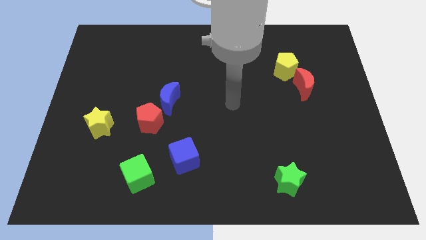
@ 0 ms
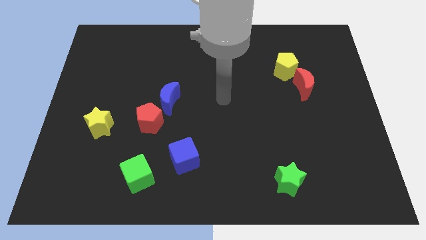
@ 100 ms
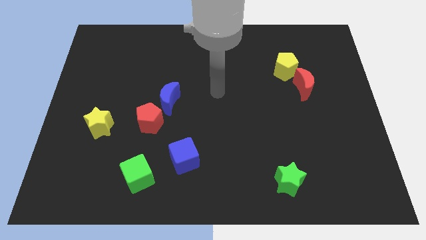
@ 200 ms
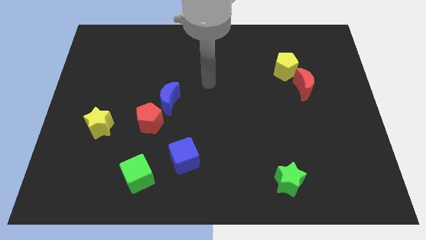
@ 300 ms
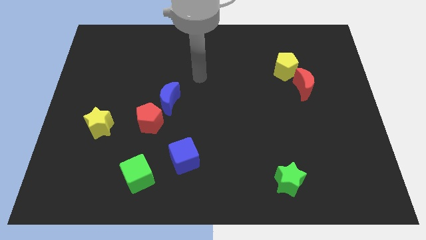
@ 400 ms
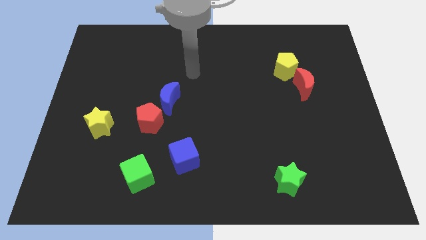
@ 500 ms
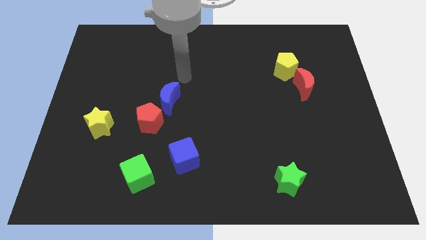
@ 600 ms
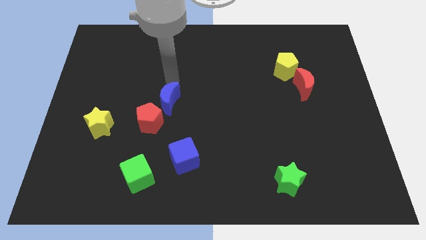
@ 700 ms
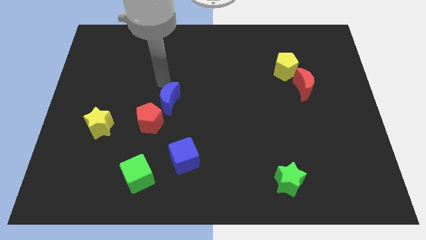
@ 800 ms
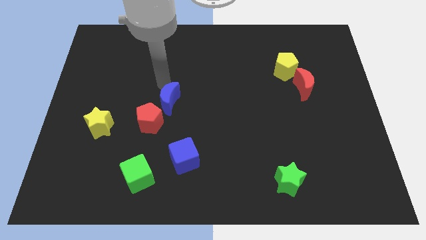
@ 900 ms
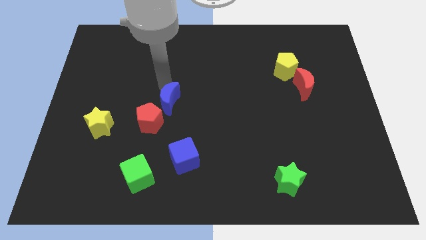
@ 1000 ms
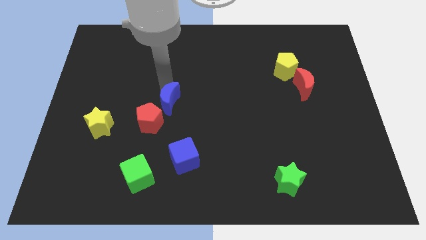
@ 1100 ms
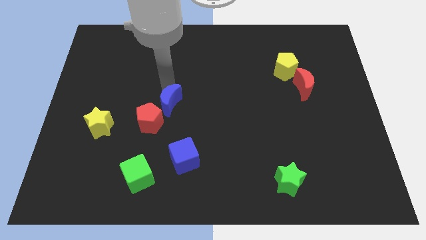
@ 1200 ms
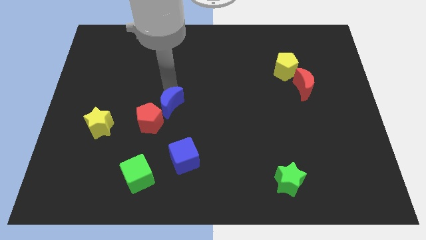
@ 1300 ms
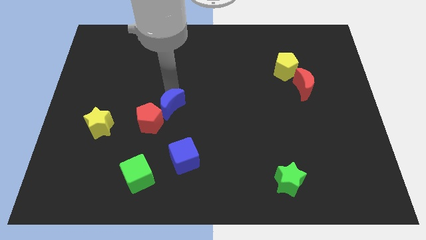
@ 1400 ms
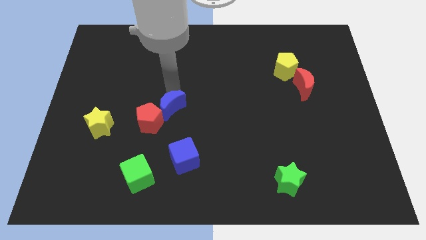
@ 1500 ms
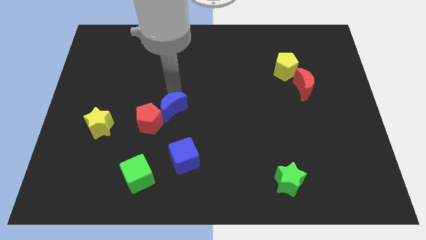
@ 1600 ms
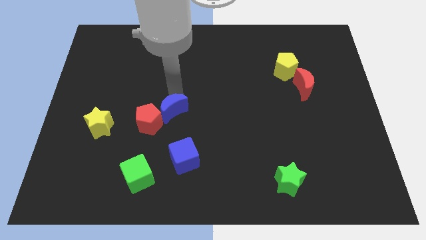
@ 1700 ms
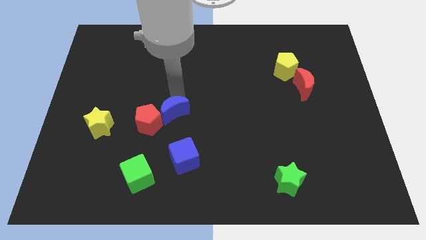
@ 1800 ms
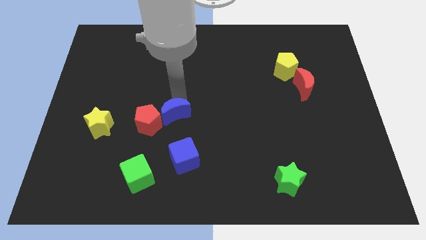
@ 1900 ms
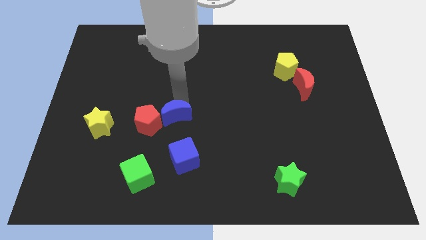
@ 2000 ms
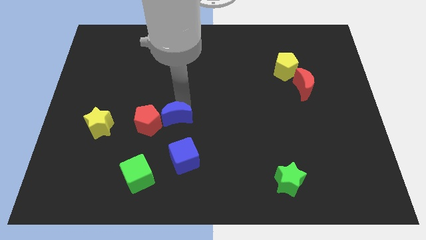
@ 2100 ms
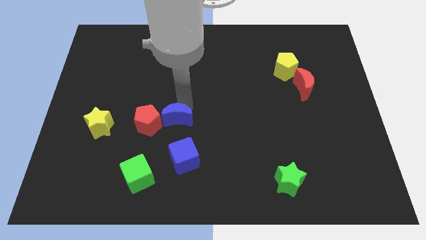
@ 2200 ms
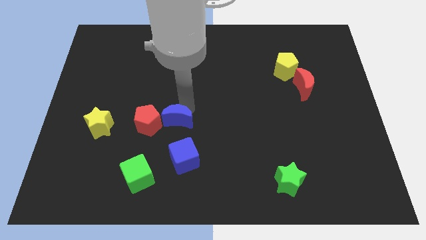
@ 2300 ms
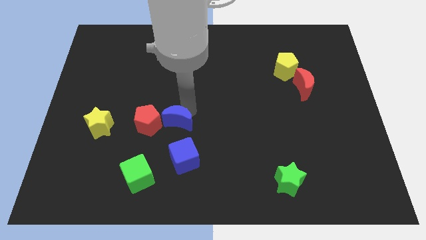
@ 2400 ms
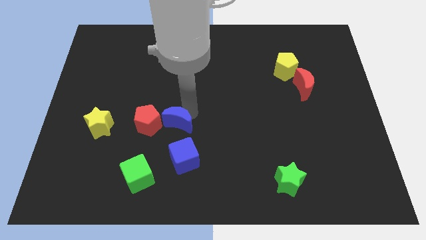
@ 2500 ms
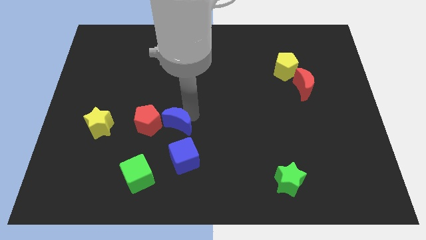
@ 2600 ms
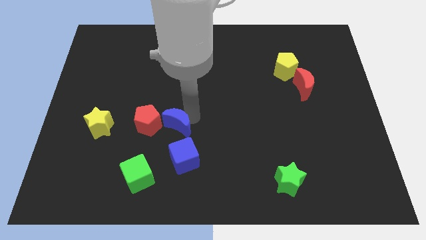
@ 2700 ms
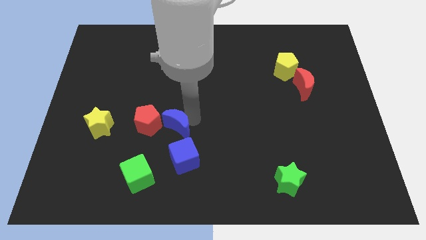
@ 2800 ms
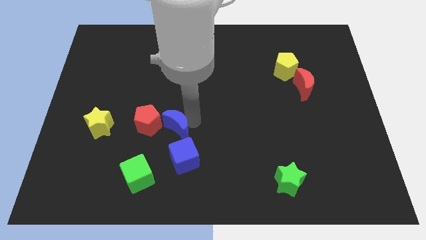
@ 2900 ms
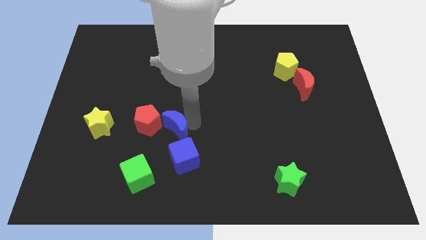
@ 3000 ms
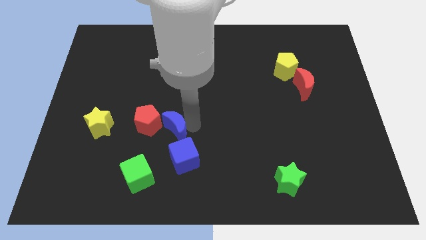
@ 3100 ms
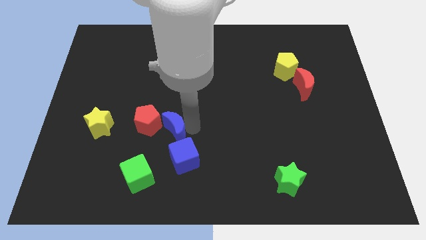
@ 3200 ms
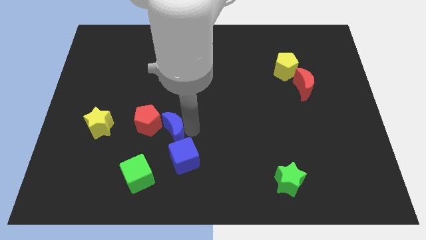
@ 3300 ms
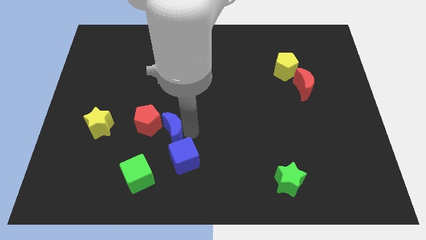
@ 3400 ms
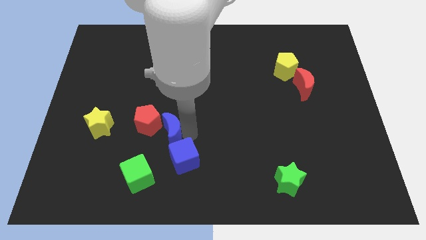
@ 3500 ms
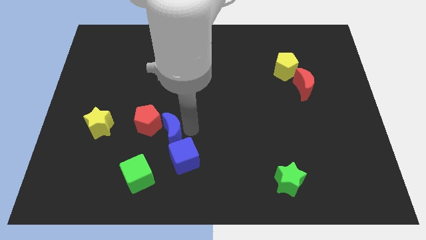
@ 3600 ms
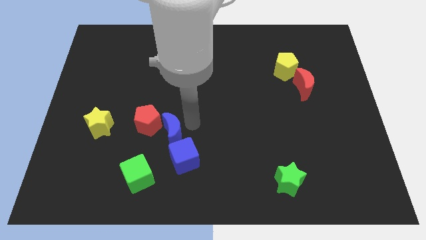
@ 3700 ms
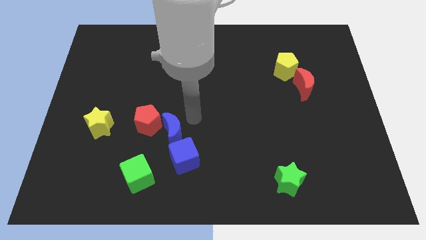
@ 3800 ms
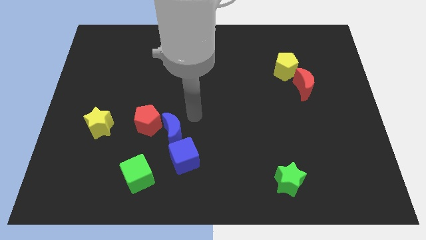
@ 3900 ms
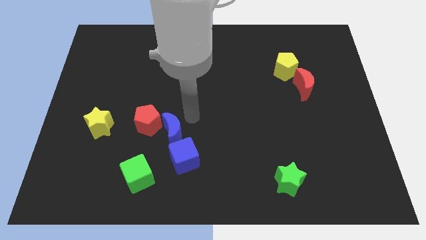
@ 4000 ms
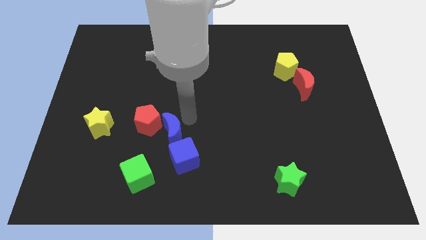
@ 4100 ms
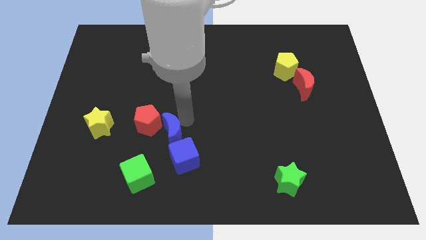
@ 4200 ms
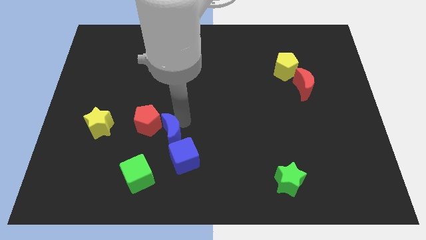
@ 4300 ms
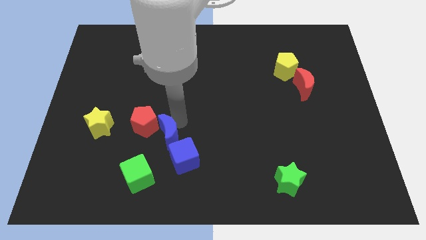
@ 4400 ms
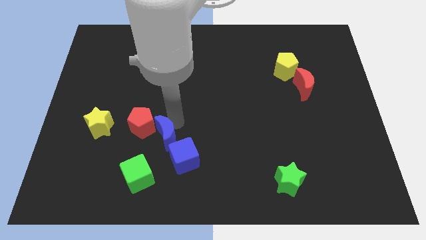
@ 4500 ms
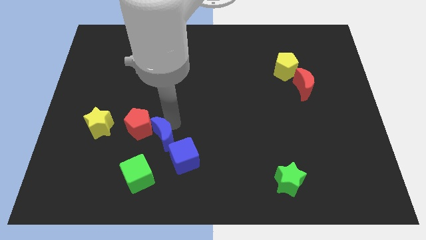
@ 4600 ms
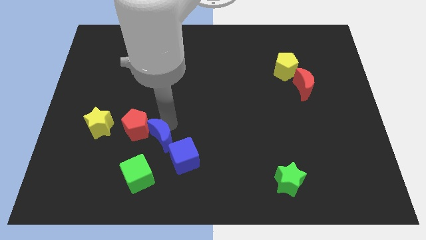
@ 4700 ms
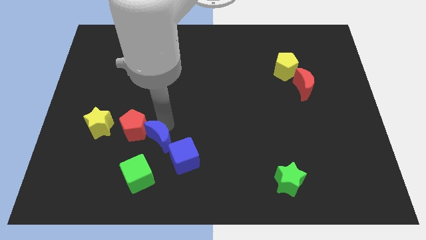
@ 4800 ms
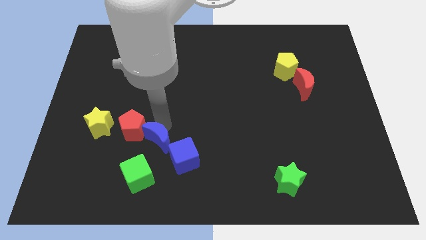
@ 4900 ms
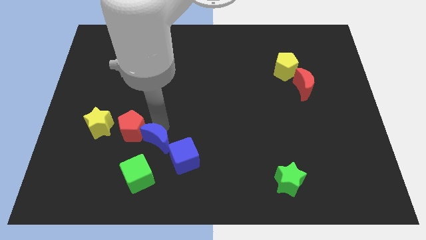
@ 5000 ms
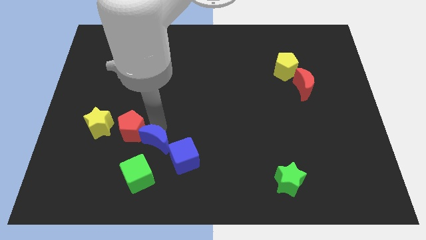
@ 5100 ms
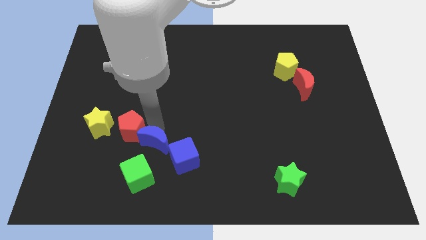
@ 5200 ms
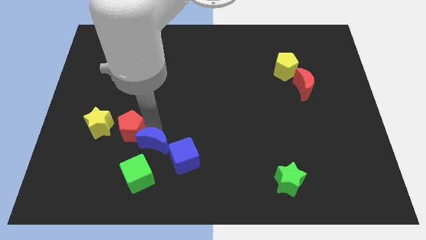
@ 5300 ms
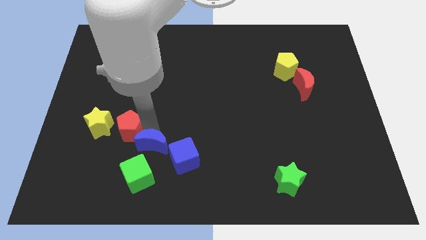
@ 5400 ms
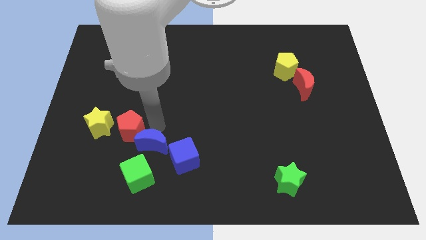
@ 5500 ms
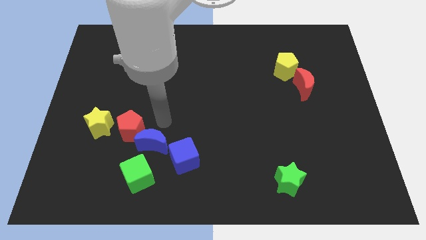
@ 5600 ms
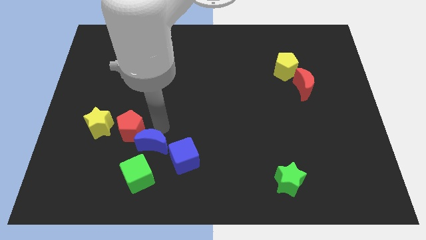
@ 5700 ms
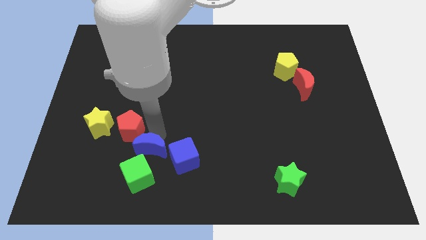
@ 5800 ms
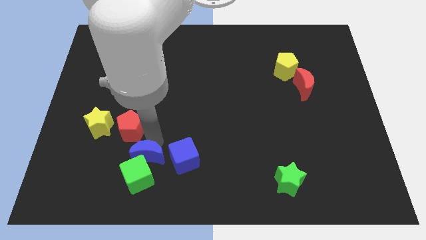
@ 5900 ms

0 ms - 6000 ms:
move the blue moon towards the green cube
